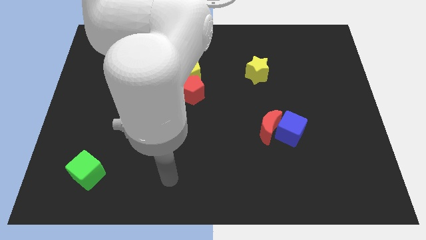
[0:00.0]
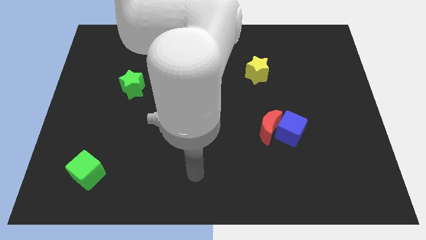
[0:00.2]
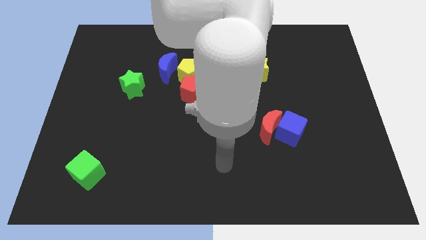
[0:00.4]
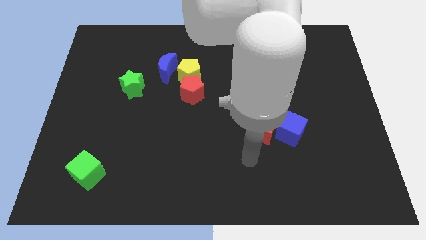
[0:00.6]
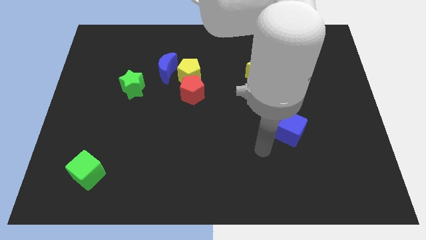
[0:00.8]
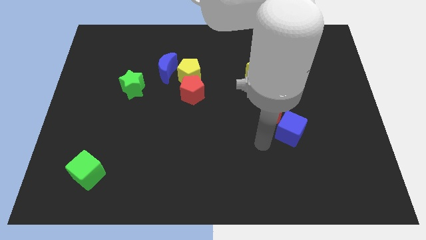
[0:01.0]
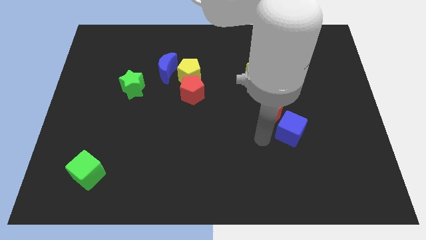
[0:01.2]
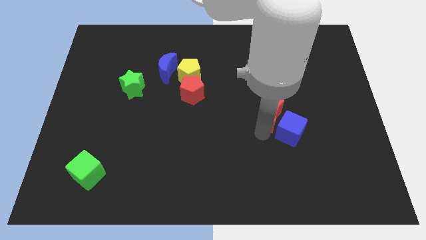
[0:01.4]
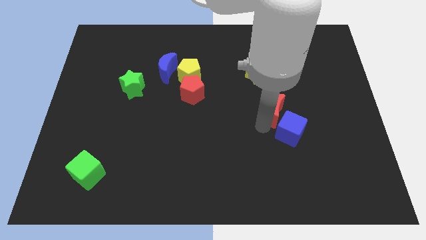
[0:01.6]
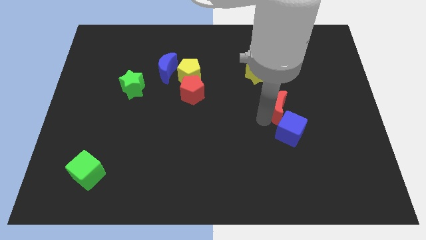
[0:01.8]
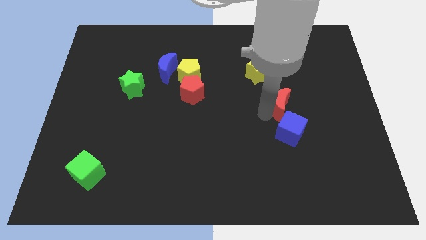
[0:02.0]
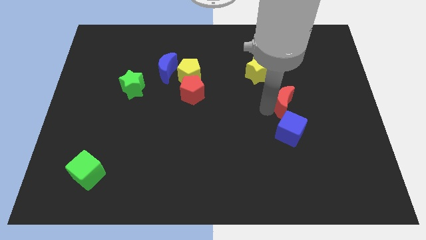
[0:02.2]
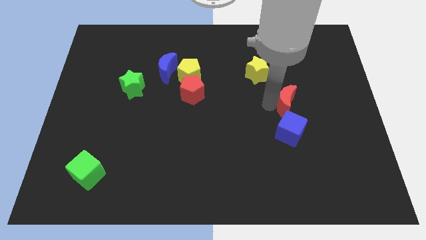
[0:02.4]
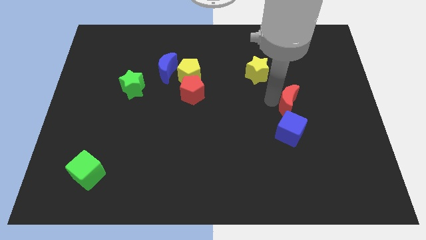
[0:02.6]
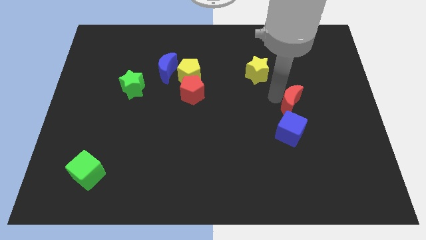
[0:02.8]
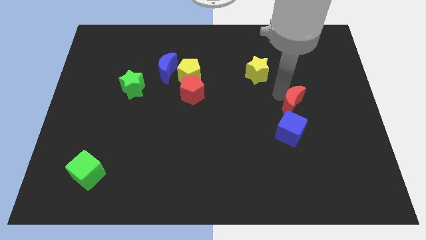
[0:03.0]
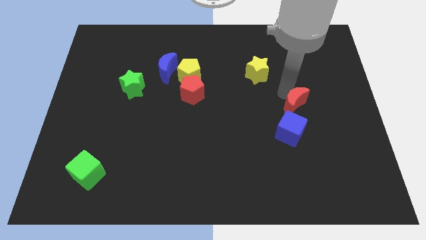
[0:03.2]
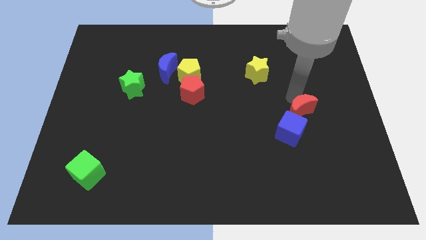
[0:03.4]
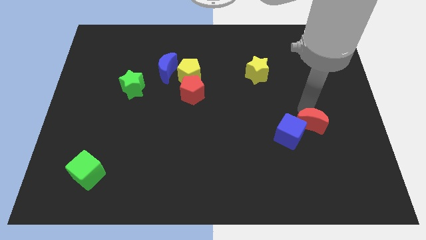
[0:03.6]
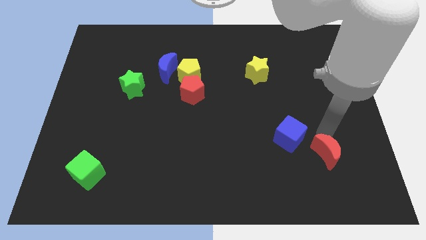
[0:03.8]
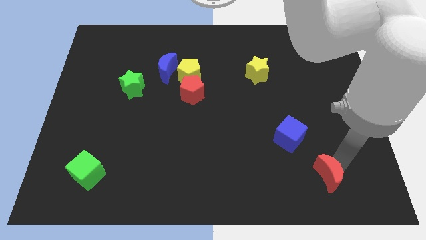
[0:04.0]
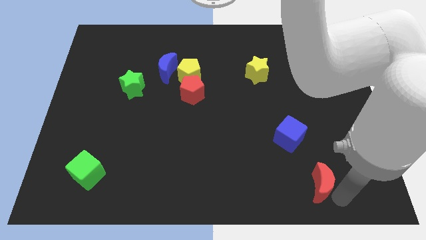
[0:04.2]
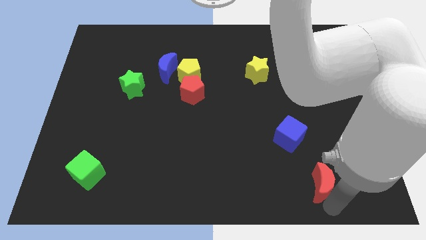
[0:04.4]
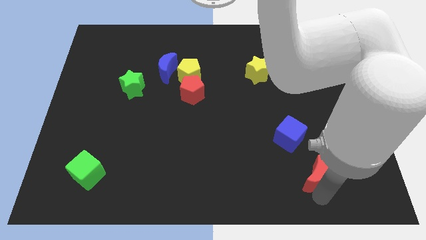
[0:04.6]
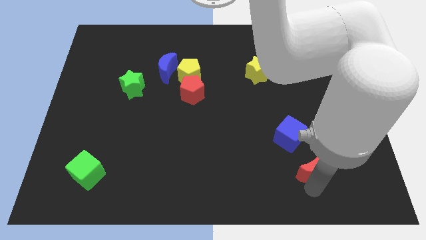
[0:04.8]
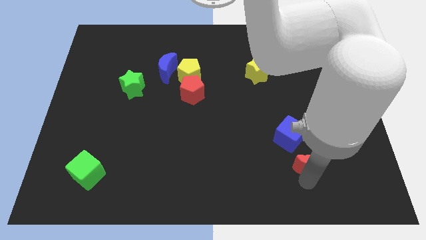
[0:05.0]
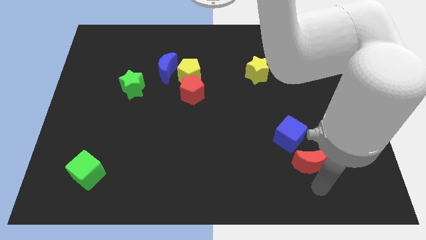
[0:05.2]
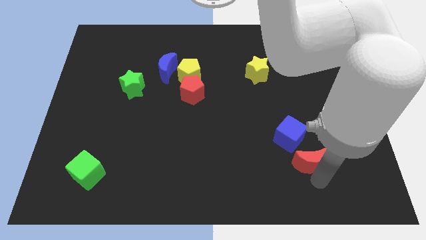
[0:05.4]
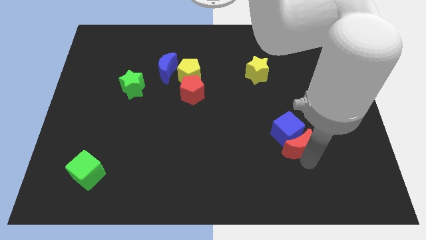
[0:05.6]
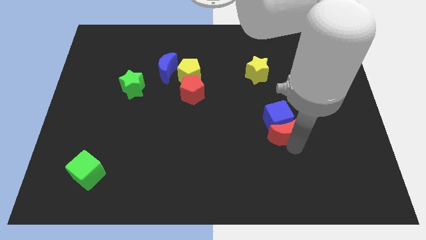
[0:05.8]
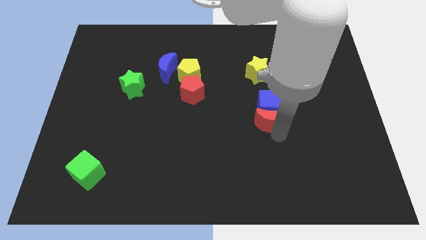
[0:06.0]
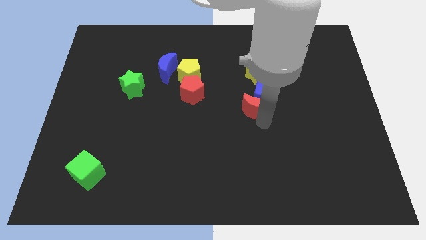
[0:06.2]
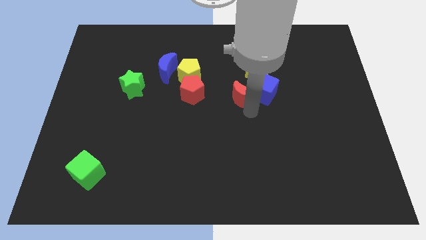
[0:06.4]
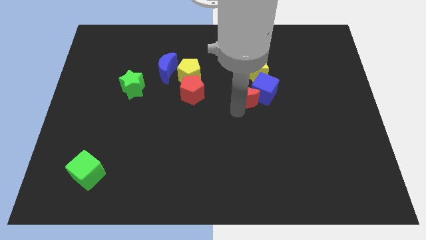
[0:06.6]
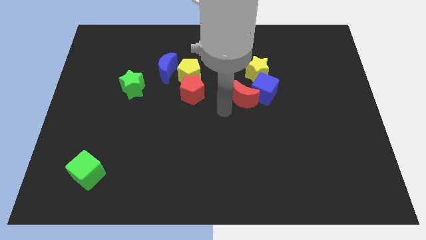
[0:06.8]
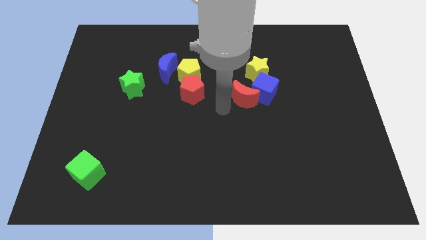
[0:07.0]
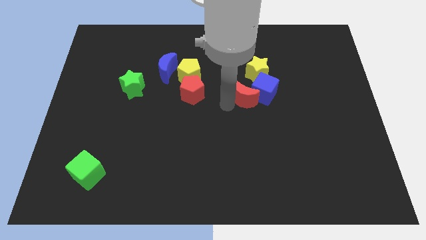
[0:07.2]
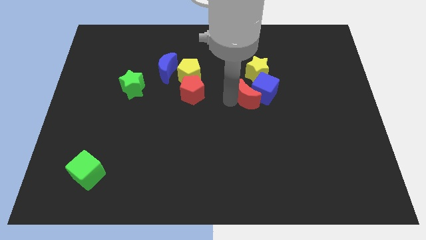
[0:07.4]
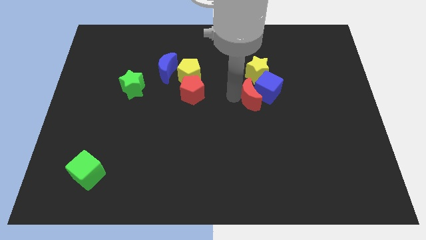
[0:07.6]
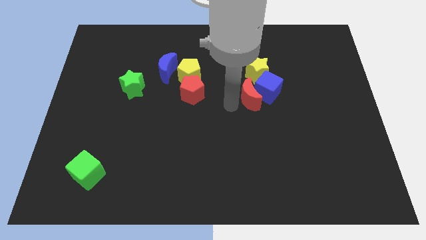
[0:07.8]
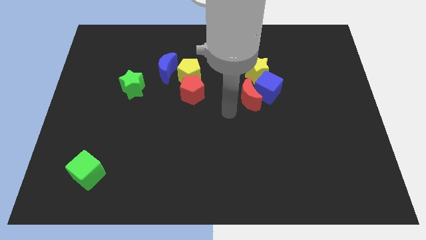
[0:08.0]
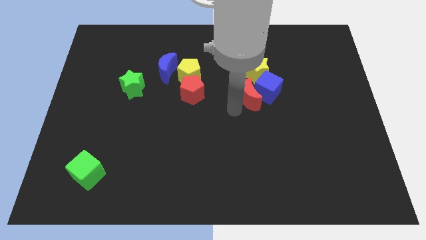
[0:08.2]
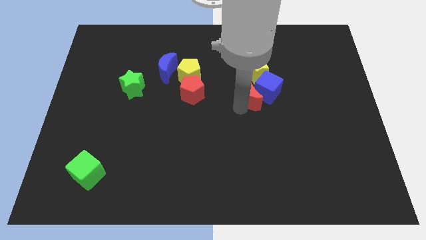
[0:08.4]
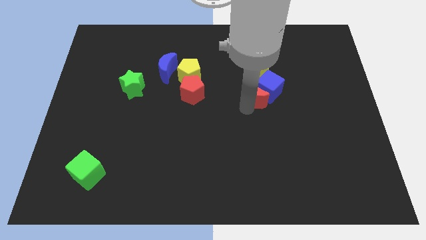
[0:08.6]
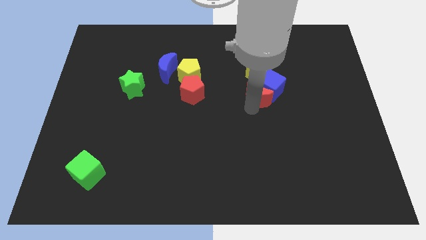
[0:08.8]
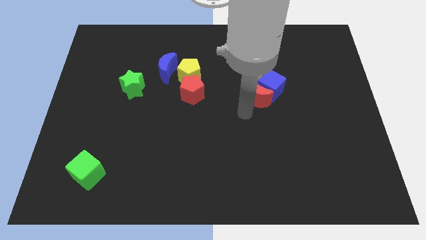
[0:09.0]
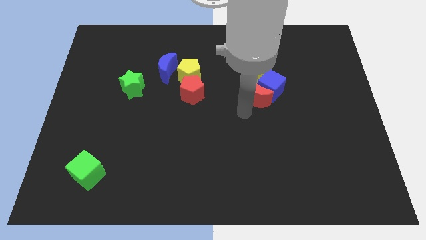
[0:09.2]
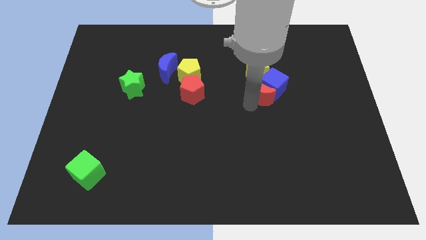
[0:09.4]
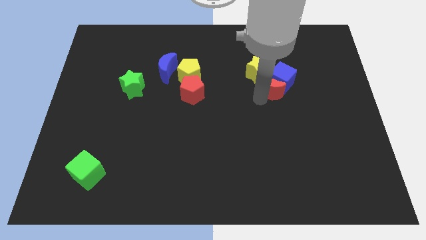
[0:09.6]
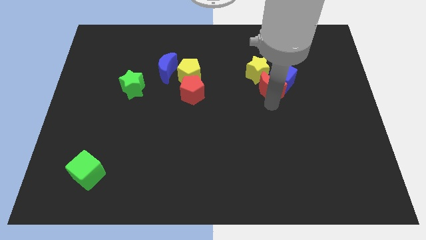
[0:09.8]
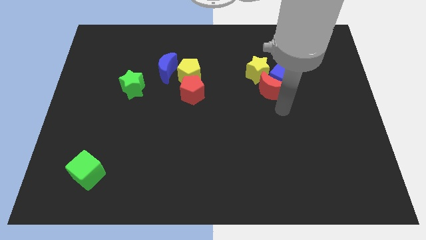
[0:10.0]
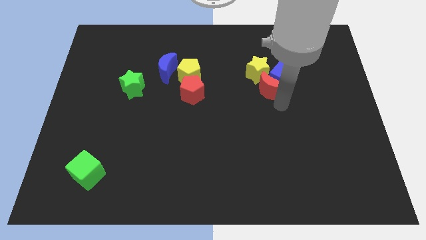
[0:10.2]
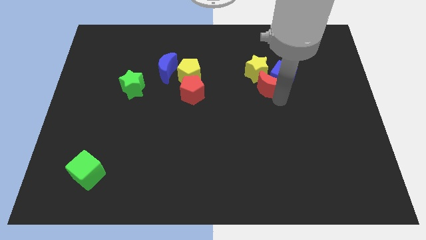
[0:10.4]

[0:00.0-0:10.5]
push the red moon close to the yellow star

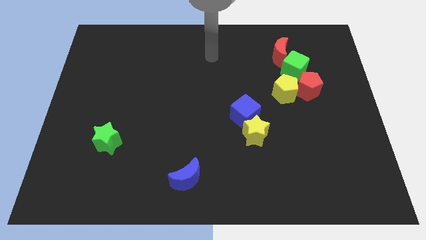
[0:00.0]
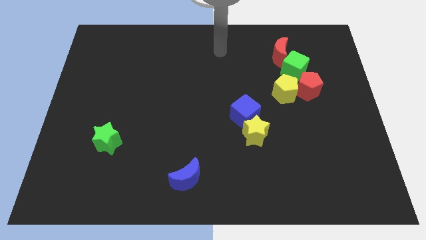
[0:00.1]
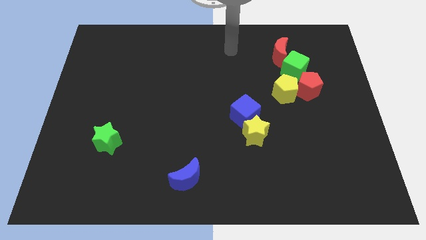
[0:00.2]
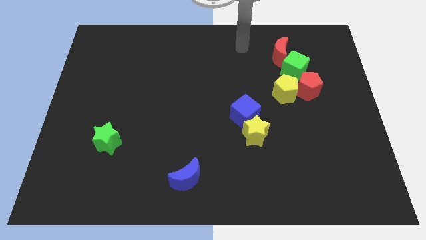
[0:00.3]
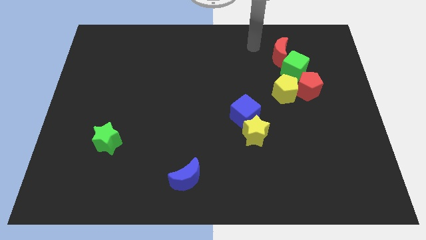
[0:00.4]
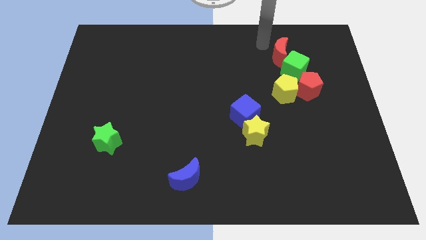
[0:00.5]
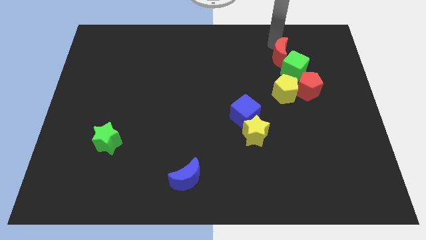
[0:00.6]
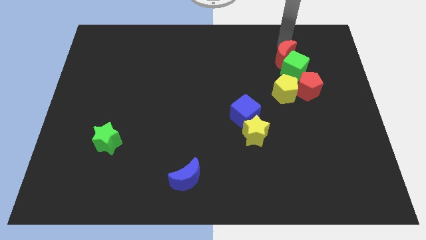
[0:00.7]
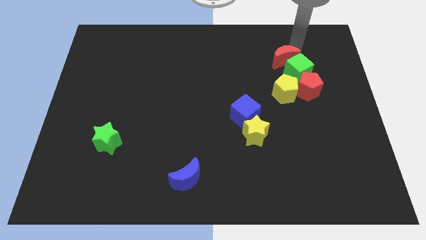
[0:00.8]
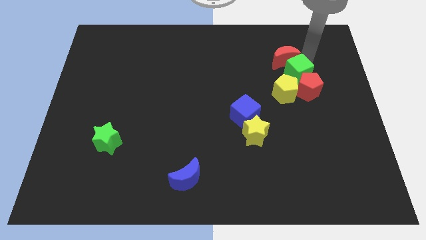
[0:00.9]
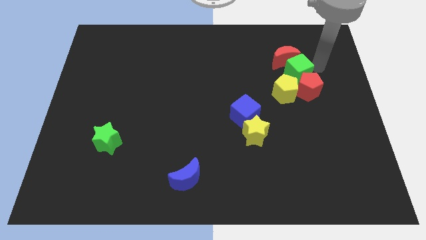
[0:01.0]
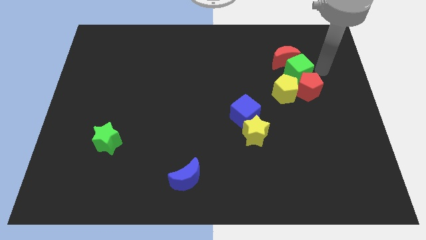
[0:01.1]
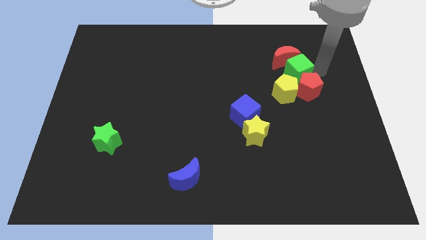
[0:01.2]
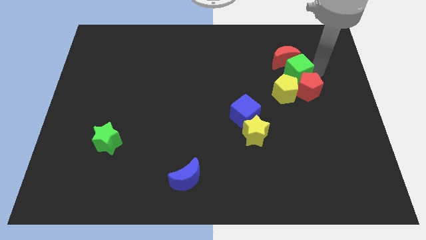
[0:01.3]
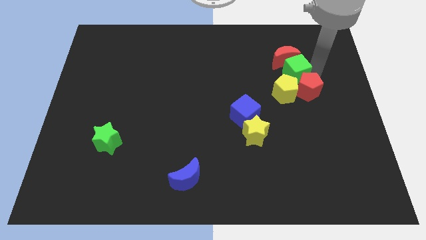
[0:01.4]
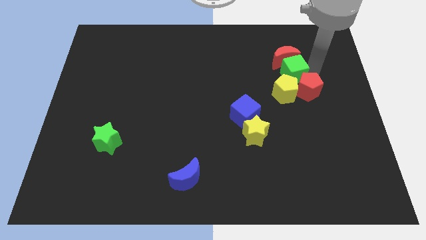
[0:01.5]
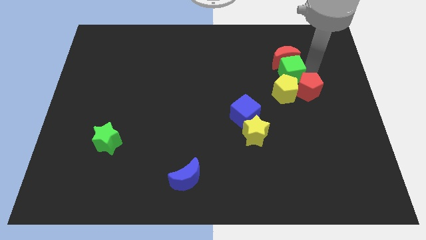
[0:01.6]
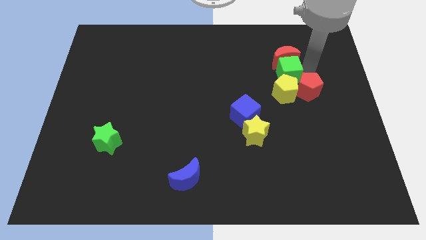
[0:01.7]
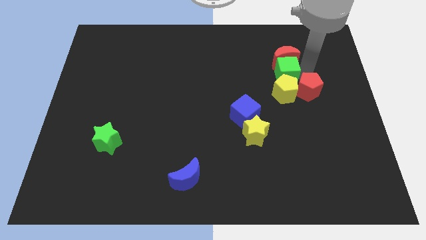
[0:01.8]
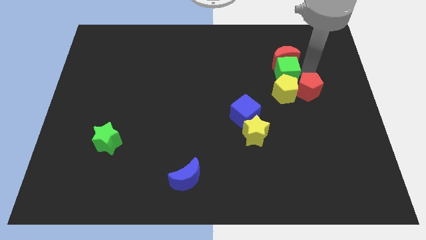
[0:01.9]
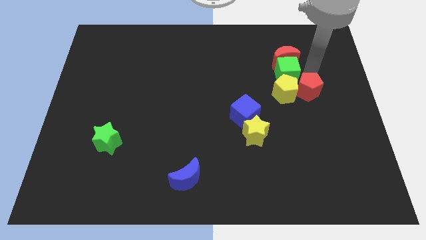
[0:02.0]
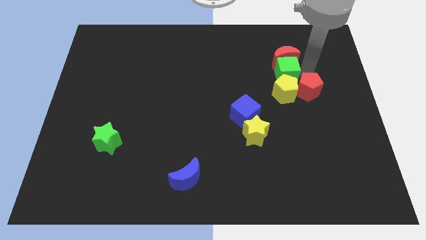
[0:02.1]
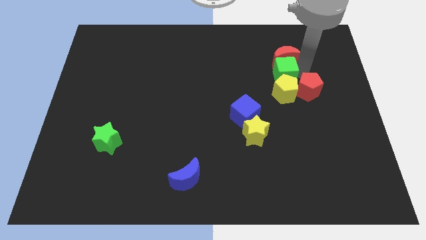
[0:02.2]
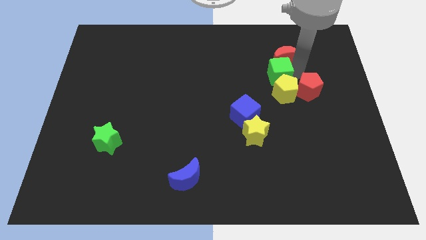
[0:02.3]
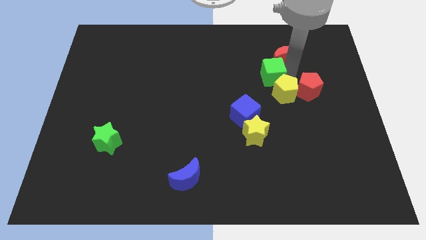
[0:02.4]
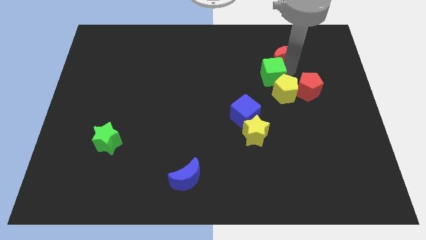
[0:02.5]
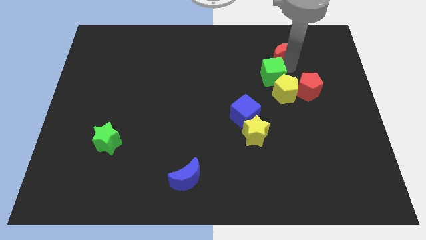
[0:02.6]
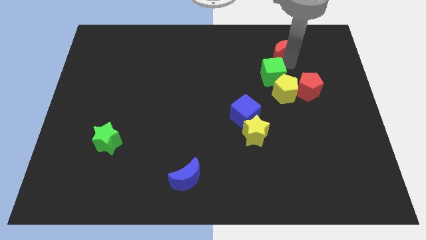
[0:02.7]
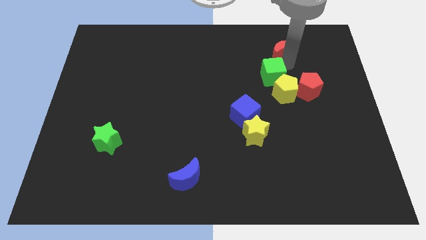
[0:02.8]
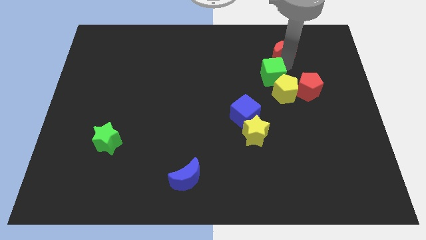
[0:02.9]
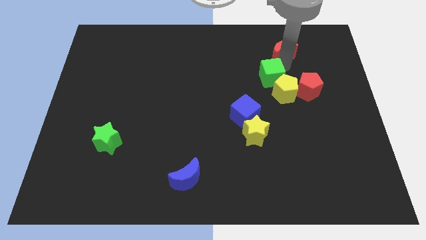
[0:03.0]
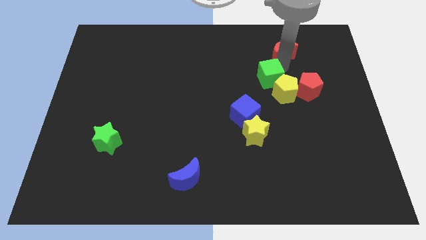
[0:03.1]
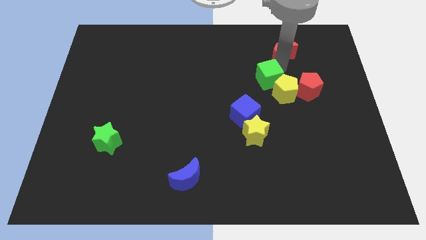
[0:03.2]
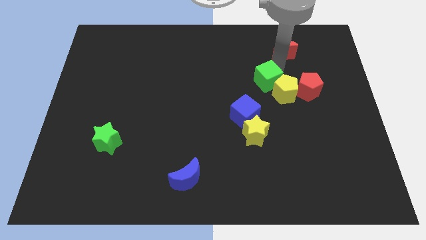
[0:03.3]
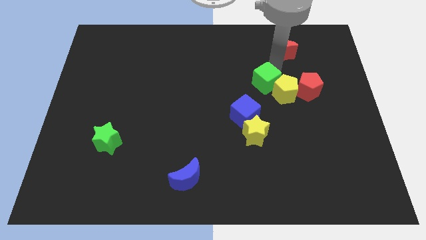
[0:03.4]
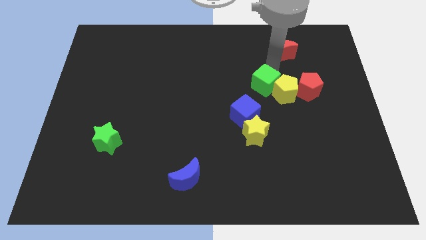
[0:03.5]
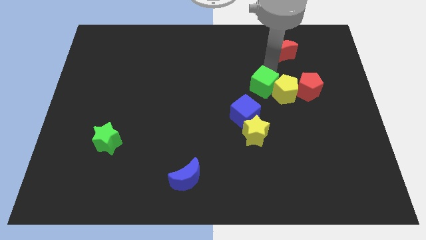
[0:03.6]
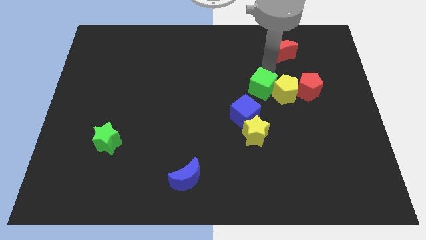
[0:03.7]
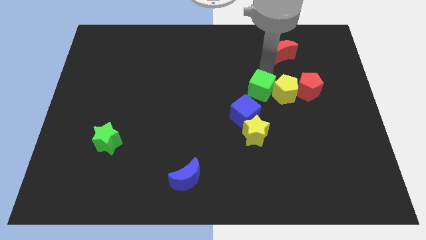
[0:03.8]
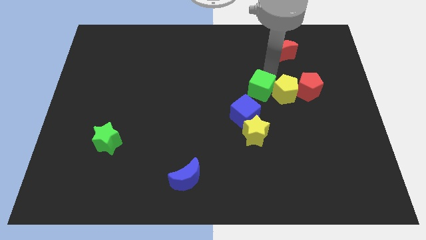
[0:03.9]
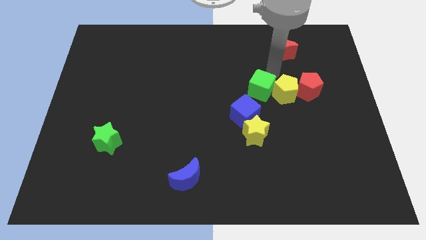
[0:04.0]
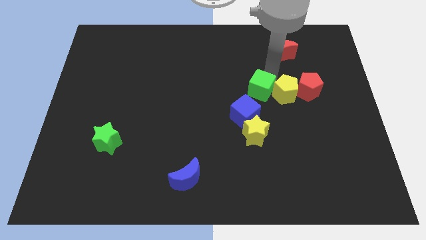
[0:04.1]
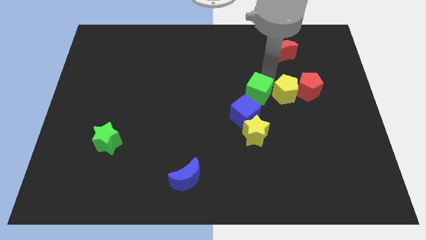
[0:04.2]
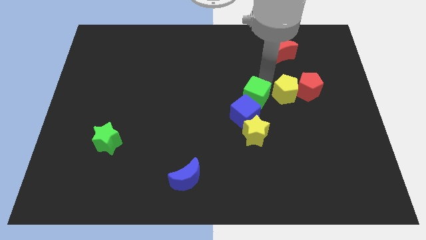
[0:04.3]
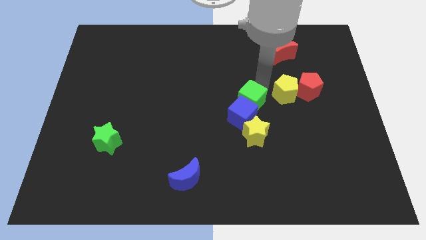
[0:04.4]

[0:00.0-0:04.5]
slide the green cube close to the blue cube
